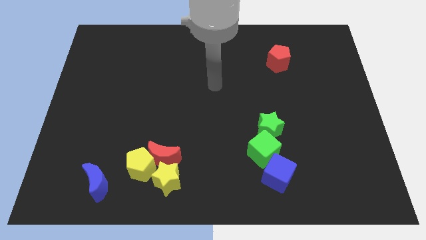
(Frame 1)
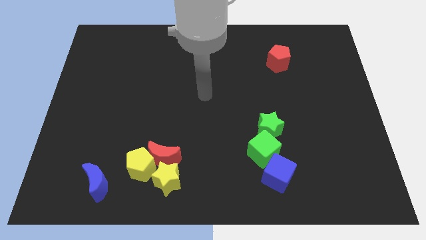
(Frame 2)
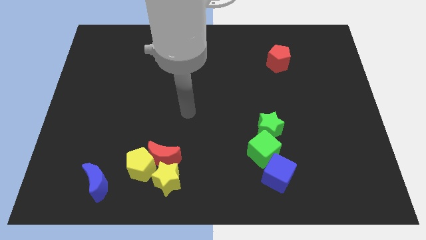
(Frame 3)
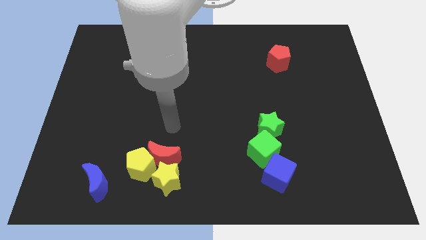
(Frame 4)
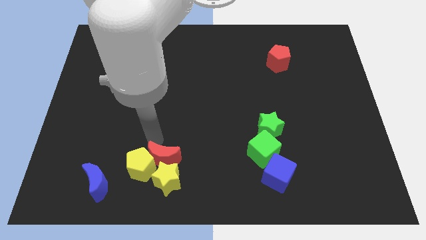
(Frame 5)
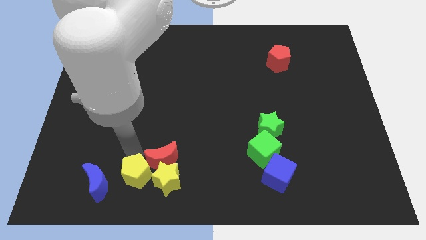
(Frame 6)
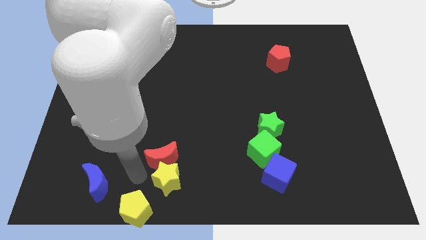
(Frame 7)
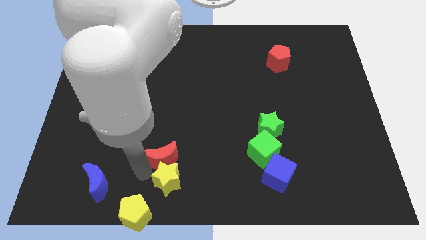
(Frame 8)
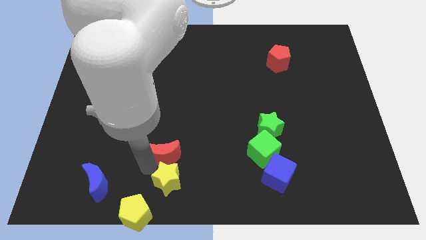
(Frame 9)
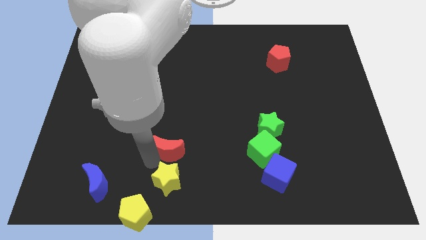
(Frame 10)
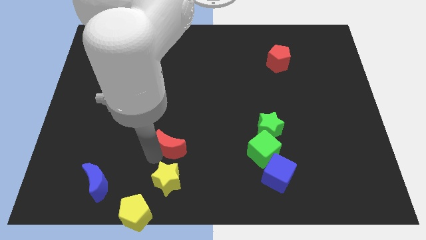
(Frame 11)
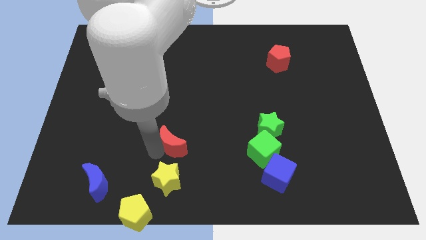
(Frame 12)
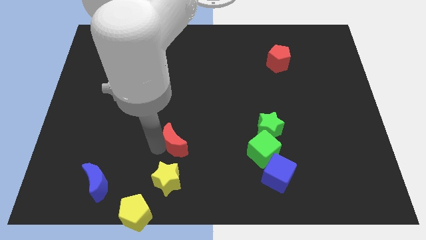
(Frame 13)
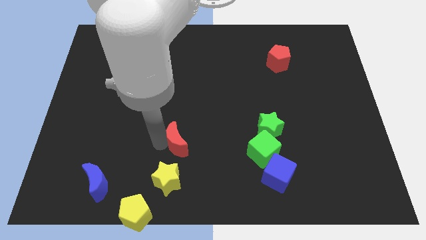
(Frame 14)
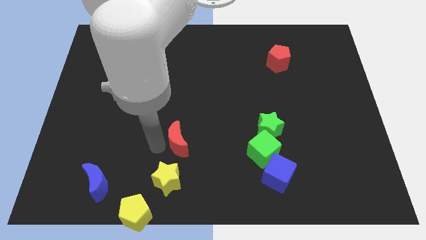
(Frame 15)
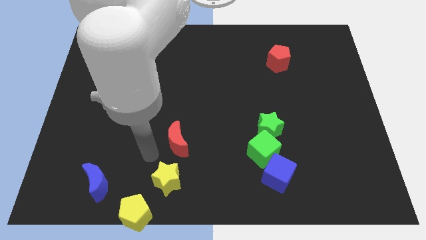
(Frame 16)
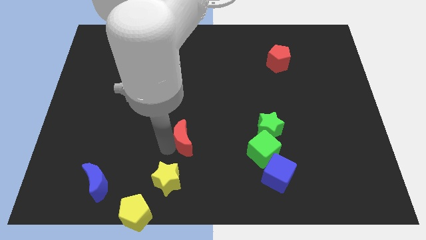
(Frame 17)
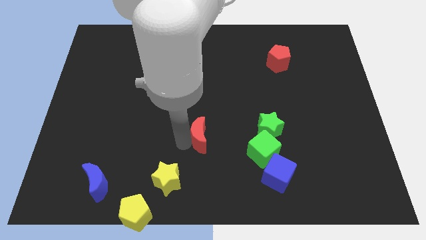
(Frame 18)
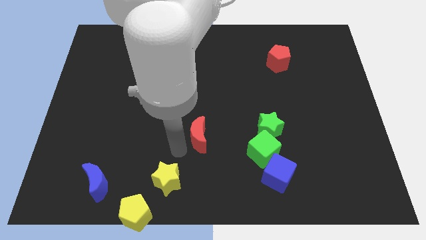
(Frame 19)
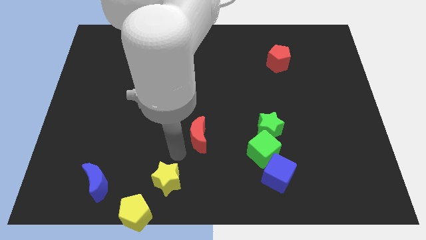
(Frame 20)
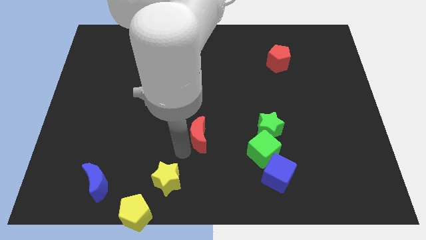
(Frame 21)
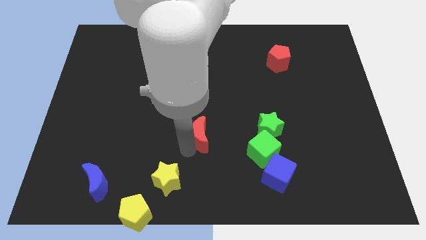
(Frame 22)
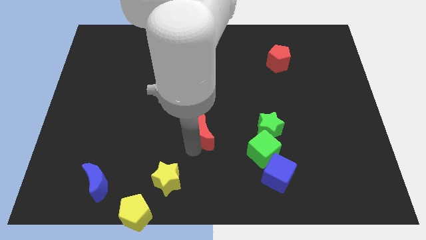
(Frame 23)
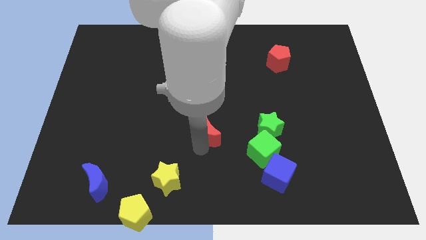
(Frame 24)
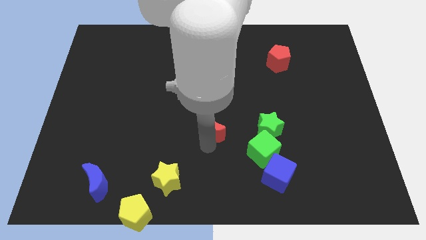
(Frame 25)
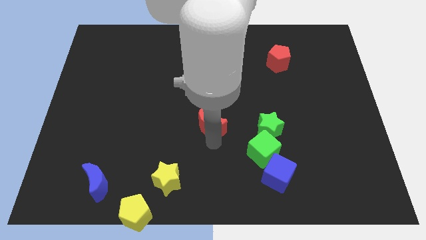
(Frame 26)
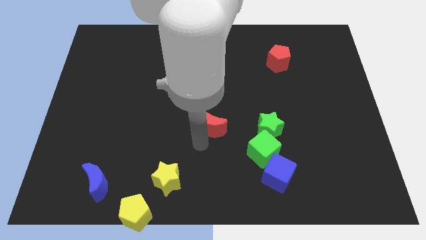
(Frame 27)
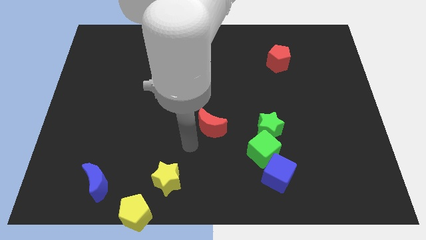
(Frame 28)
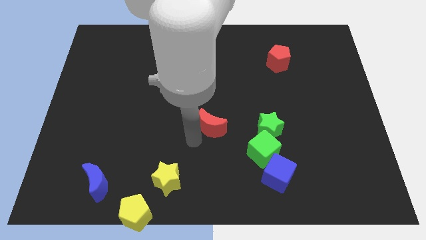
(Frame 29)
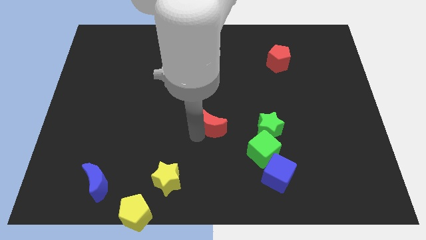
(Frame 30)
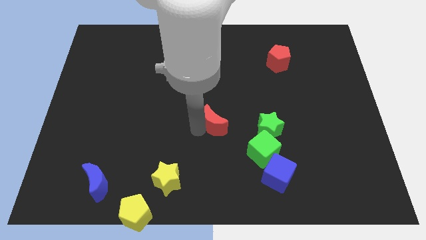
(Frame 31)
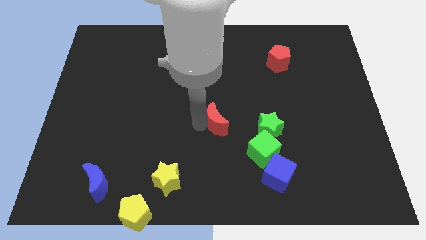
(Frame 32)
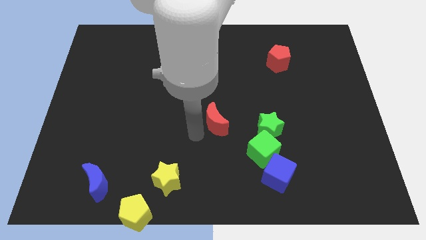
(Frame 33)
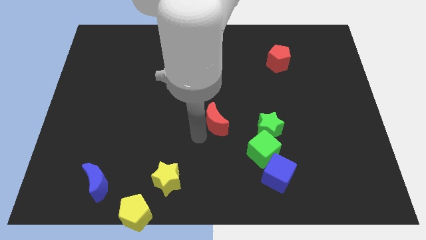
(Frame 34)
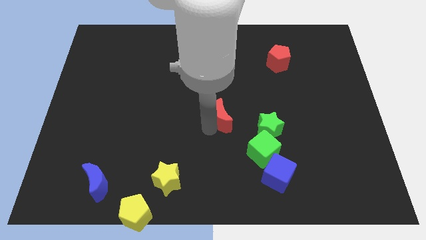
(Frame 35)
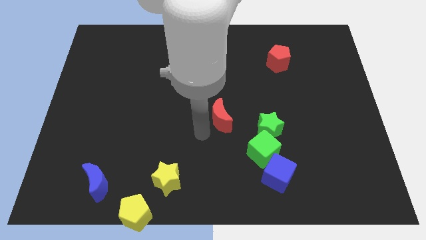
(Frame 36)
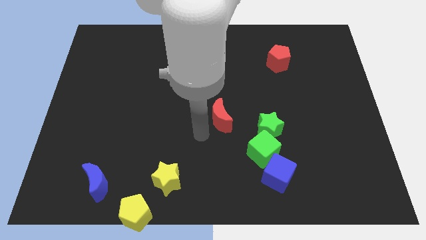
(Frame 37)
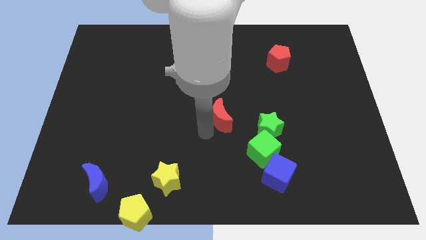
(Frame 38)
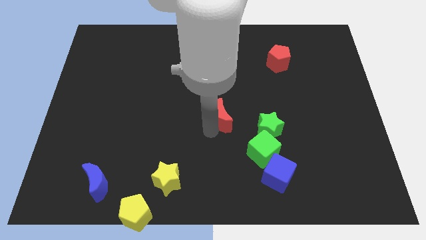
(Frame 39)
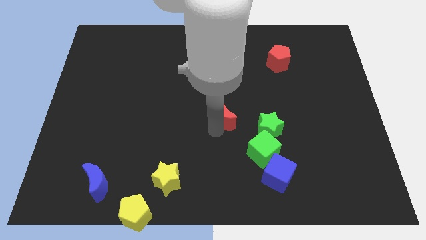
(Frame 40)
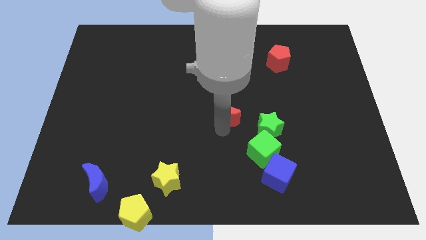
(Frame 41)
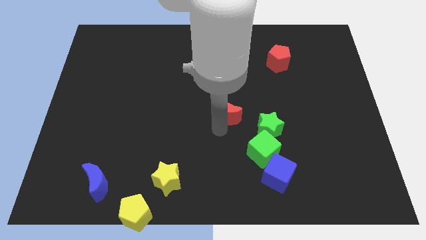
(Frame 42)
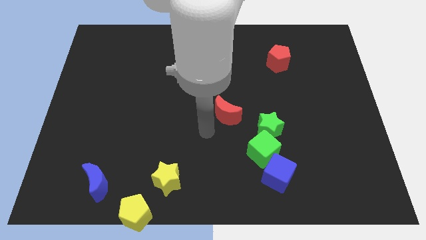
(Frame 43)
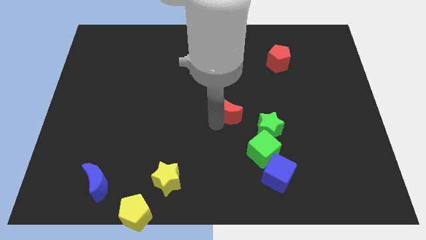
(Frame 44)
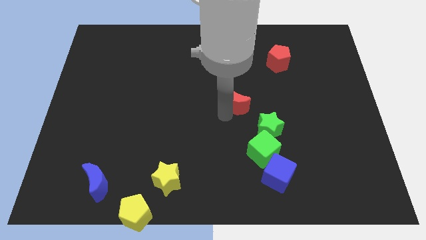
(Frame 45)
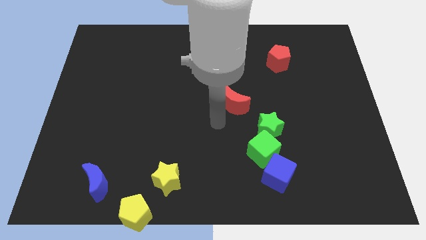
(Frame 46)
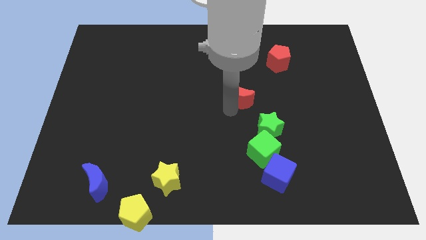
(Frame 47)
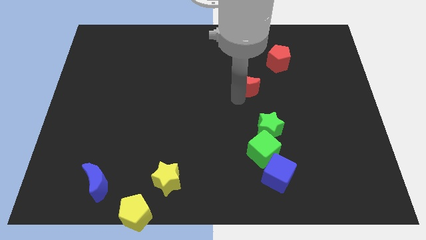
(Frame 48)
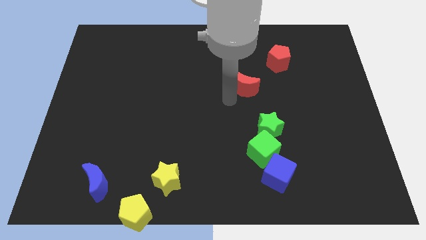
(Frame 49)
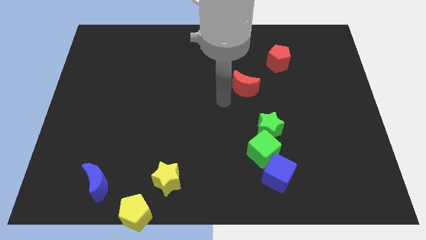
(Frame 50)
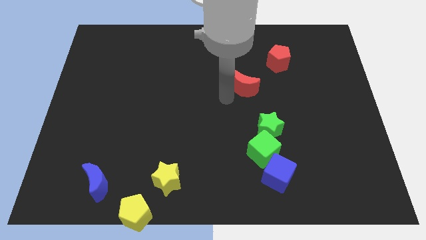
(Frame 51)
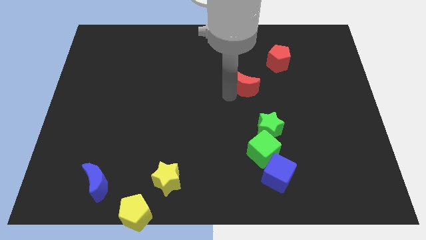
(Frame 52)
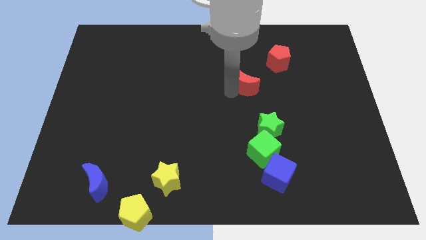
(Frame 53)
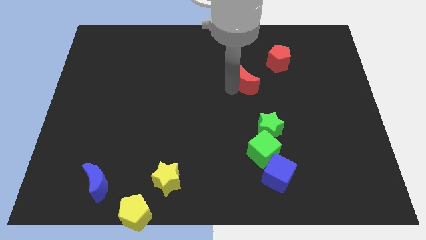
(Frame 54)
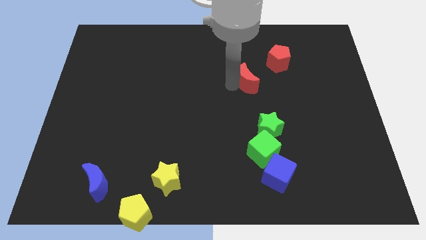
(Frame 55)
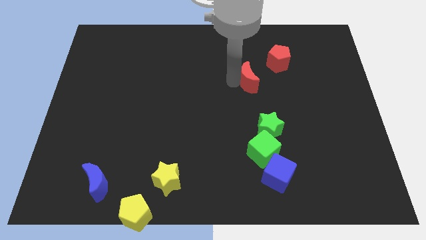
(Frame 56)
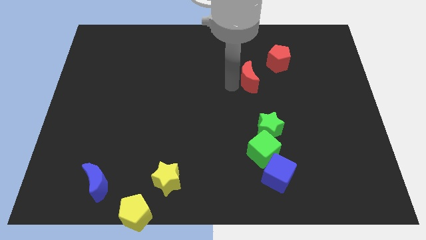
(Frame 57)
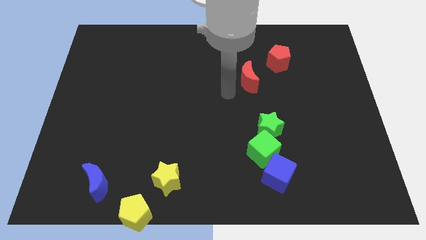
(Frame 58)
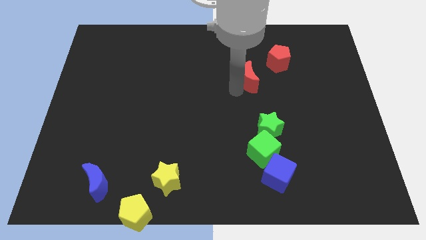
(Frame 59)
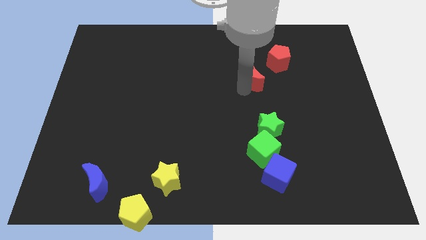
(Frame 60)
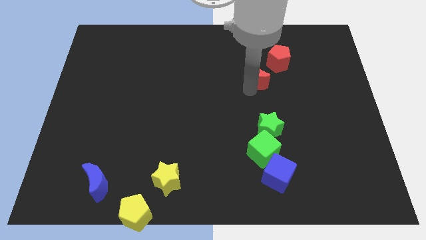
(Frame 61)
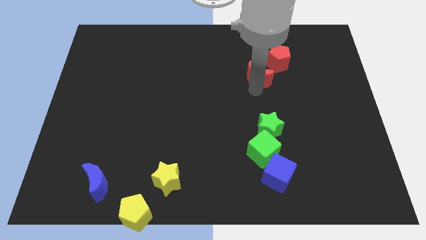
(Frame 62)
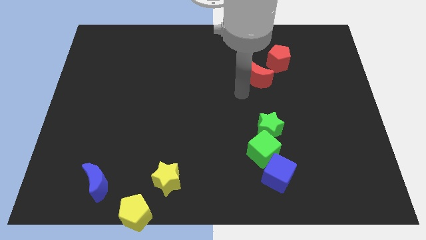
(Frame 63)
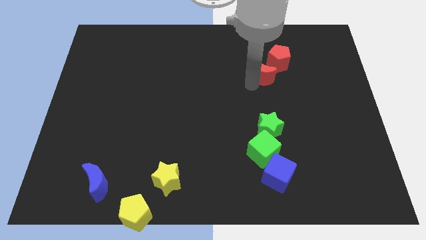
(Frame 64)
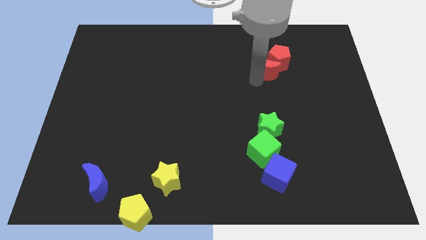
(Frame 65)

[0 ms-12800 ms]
slide the red moon close to the red pentagon
